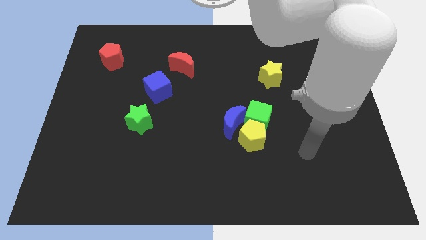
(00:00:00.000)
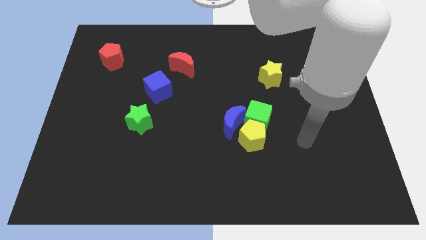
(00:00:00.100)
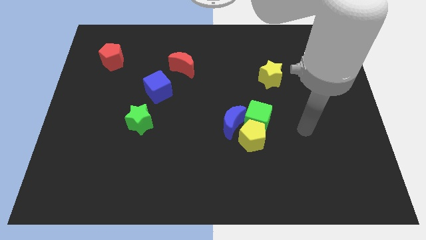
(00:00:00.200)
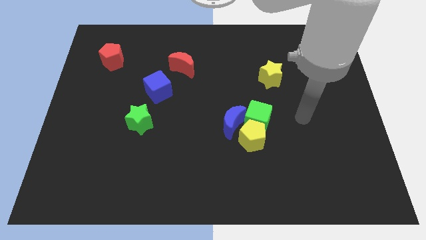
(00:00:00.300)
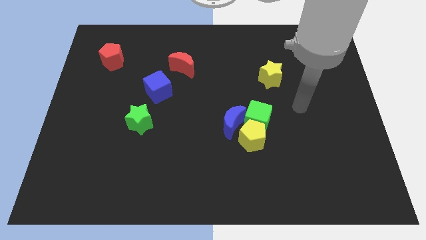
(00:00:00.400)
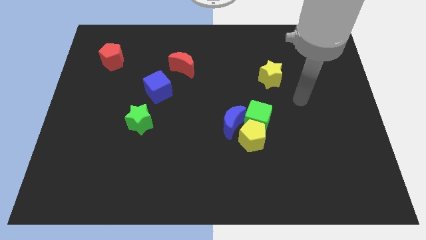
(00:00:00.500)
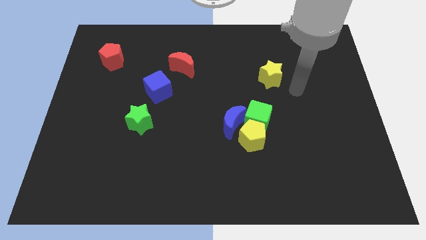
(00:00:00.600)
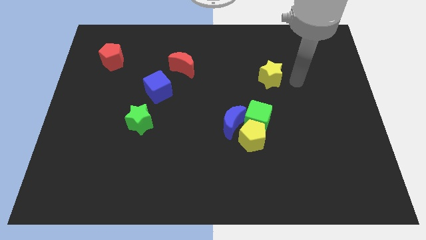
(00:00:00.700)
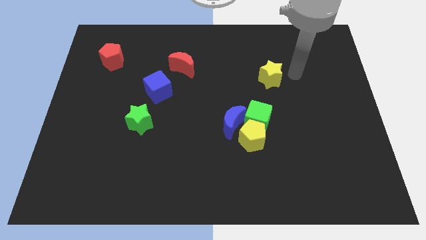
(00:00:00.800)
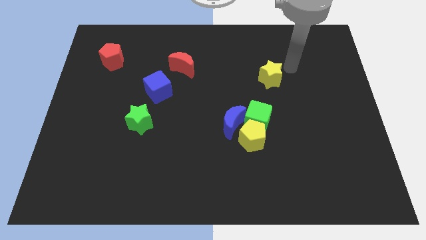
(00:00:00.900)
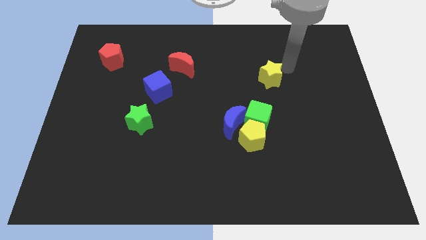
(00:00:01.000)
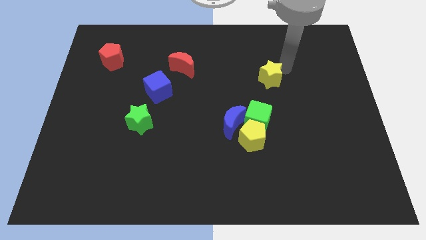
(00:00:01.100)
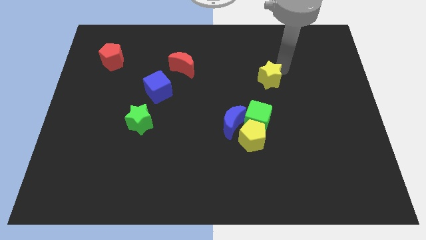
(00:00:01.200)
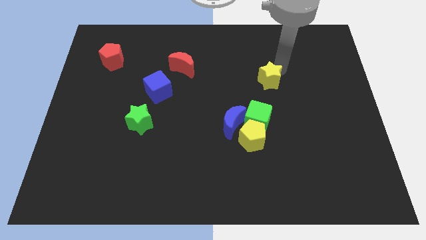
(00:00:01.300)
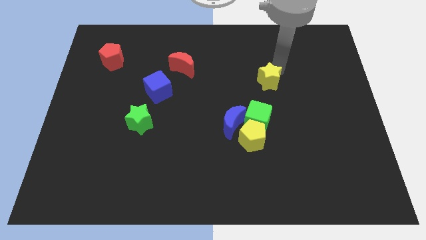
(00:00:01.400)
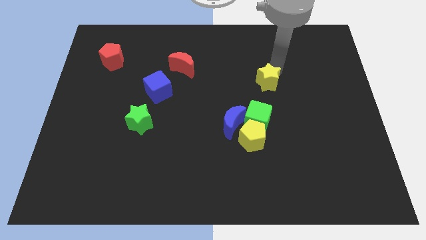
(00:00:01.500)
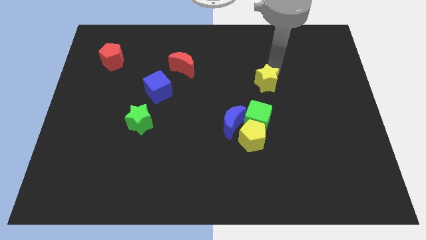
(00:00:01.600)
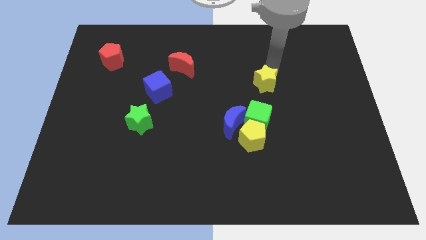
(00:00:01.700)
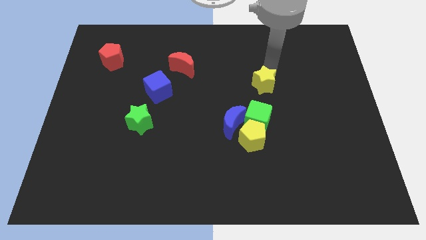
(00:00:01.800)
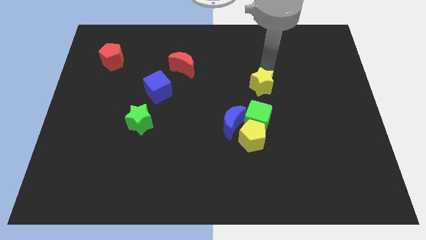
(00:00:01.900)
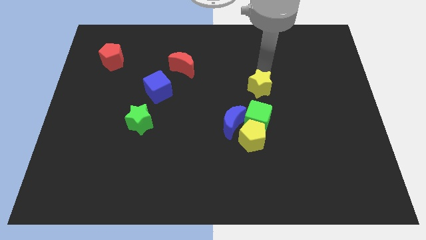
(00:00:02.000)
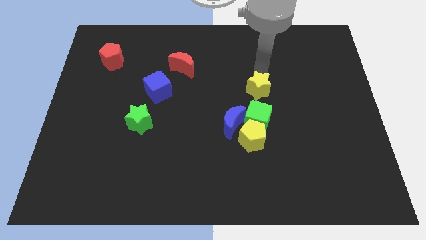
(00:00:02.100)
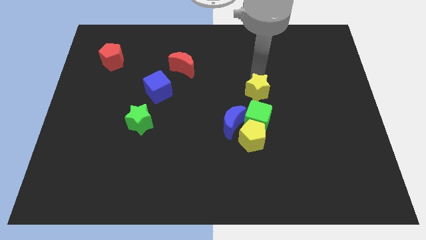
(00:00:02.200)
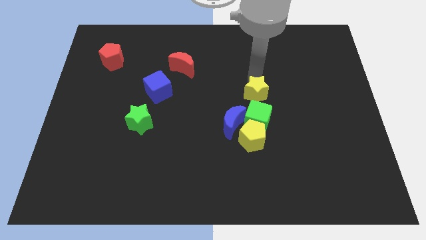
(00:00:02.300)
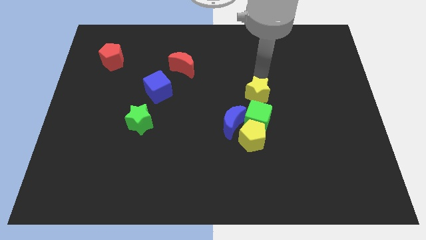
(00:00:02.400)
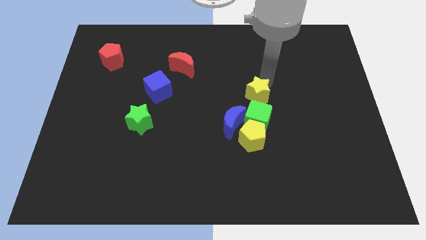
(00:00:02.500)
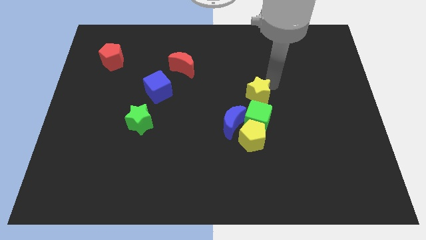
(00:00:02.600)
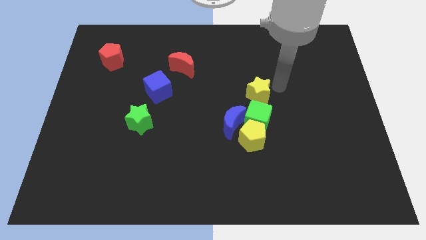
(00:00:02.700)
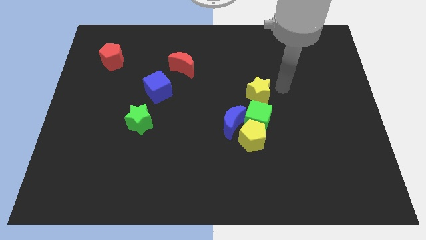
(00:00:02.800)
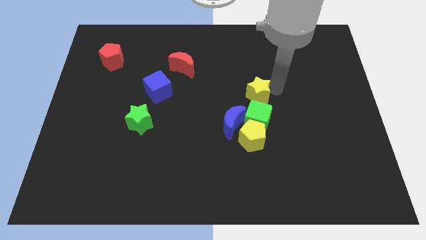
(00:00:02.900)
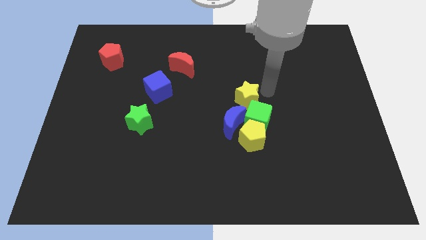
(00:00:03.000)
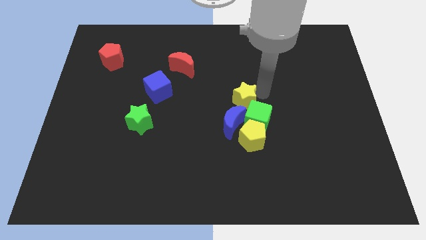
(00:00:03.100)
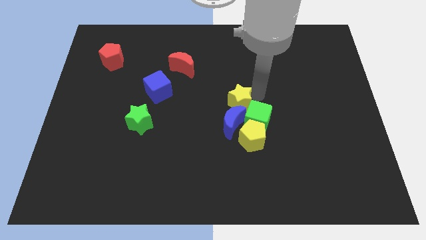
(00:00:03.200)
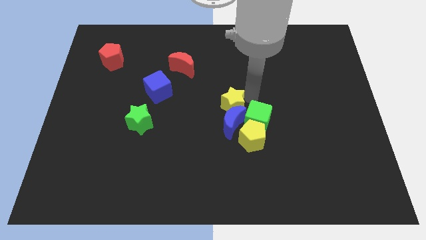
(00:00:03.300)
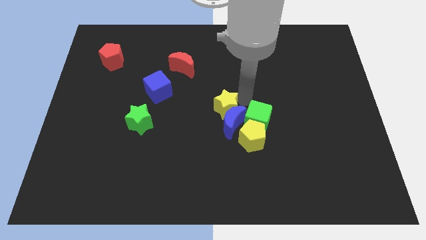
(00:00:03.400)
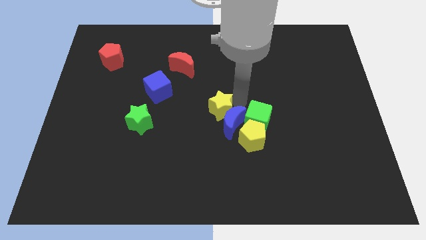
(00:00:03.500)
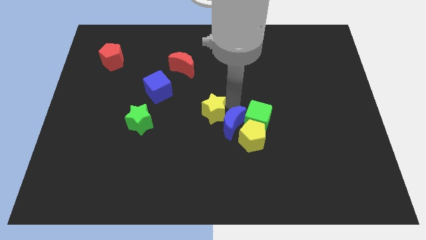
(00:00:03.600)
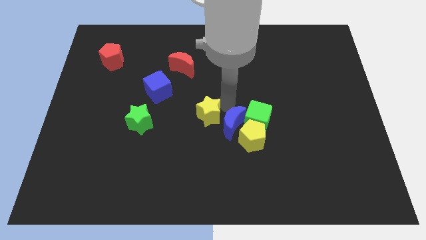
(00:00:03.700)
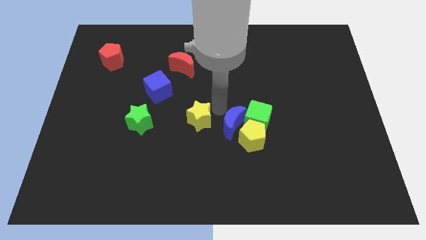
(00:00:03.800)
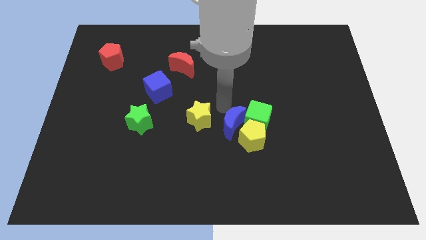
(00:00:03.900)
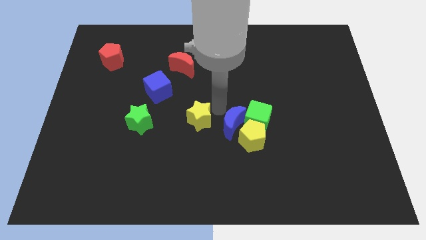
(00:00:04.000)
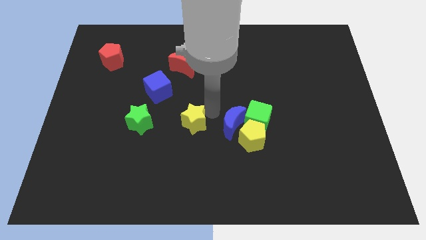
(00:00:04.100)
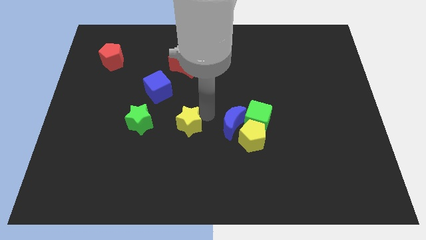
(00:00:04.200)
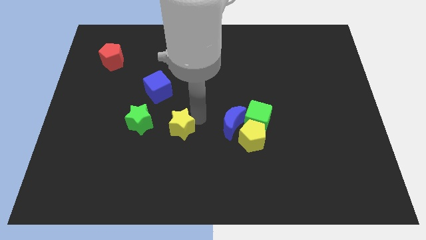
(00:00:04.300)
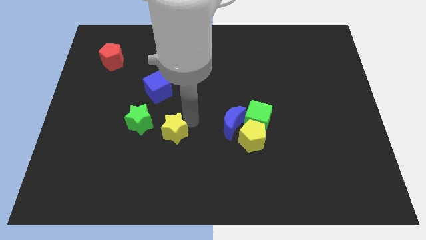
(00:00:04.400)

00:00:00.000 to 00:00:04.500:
slide the yellow star to the bottom right side of the green star

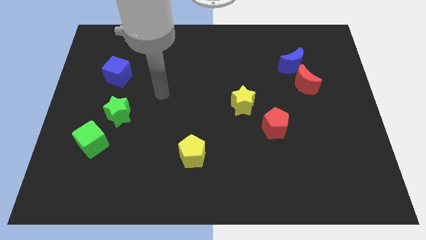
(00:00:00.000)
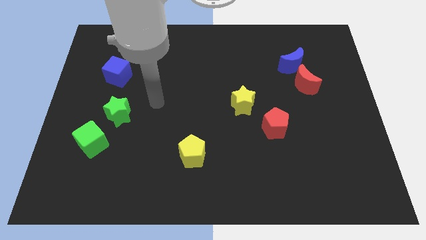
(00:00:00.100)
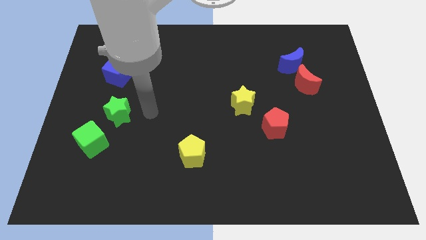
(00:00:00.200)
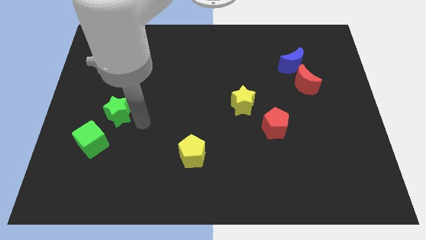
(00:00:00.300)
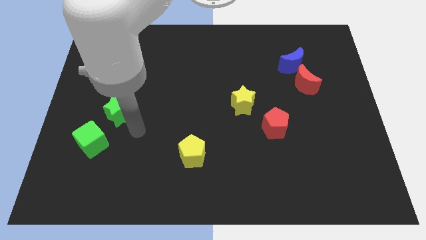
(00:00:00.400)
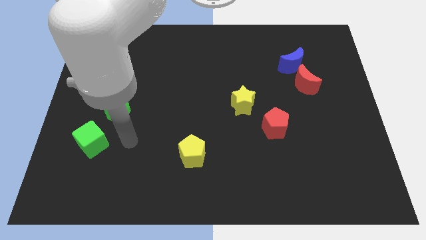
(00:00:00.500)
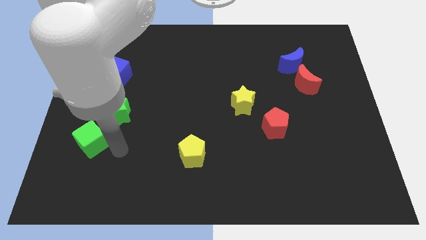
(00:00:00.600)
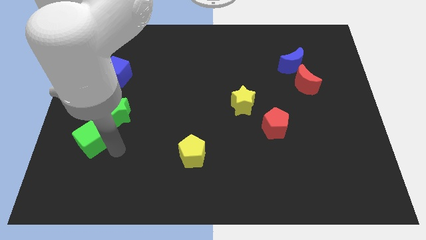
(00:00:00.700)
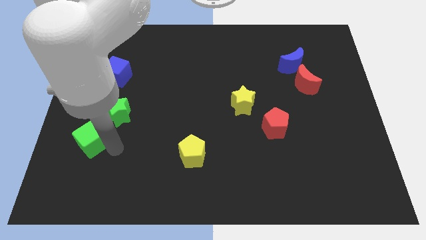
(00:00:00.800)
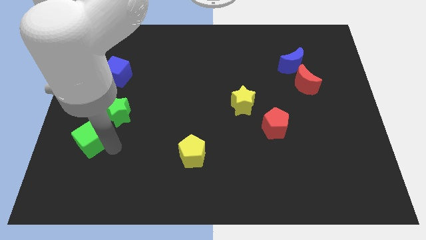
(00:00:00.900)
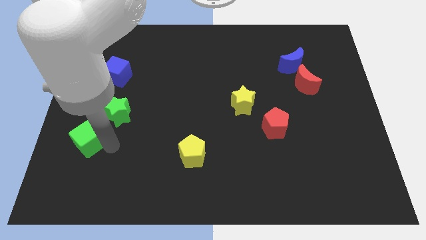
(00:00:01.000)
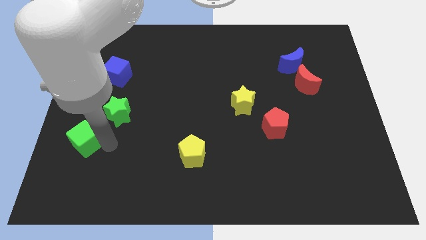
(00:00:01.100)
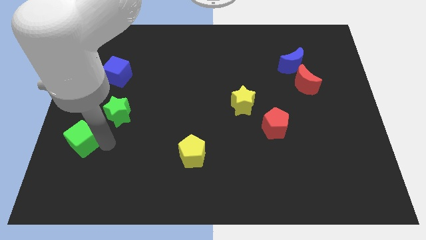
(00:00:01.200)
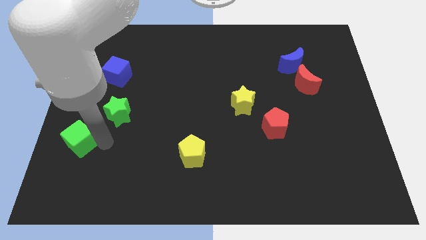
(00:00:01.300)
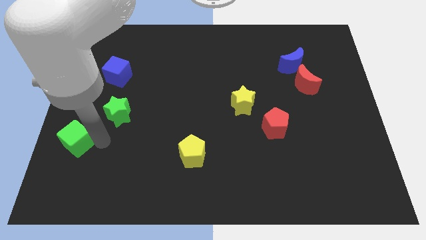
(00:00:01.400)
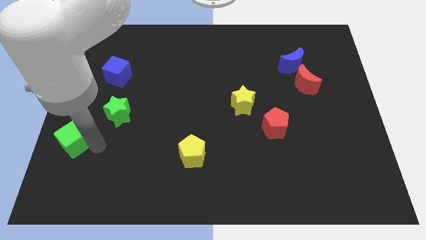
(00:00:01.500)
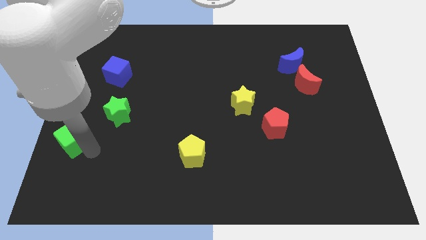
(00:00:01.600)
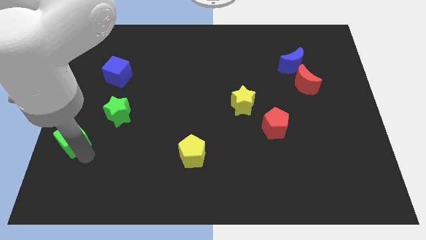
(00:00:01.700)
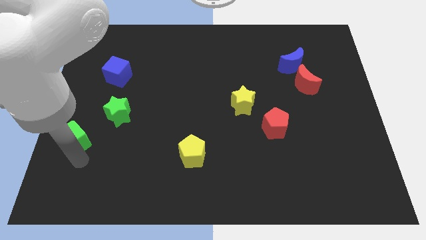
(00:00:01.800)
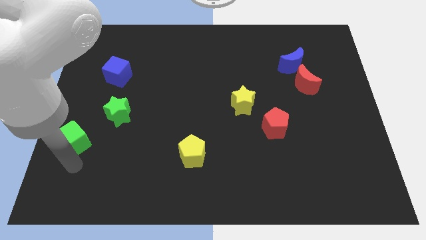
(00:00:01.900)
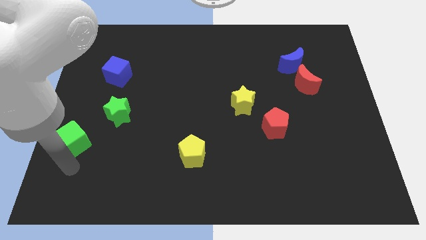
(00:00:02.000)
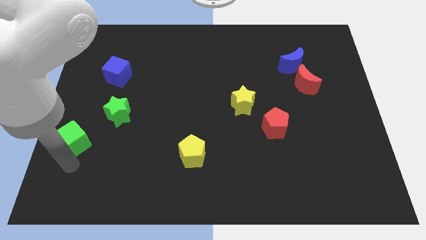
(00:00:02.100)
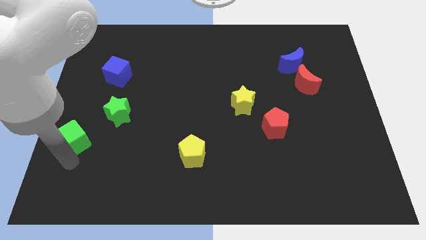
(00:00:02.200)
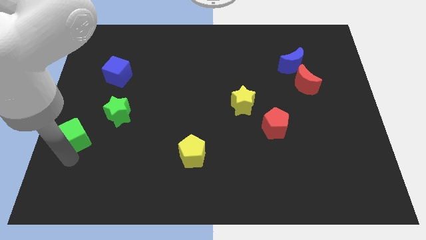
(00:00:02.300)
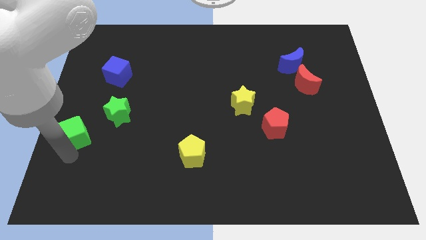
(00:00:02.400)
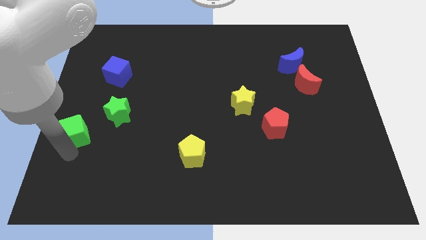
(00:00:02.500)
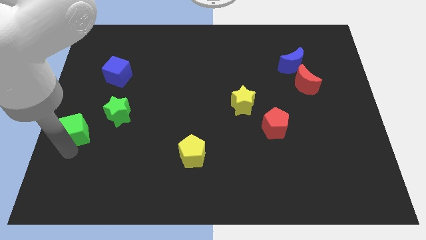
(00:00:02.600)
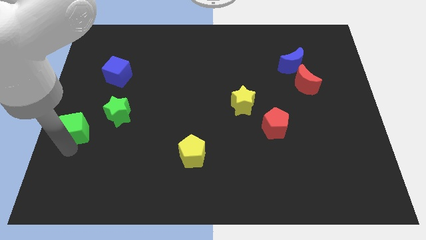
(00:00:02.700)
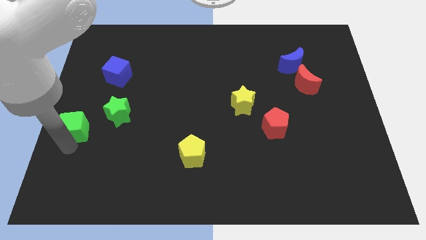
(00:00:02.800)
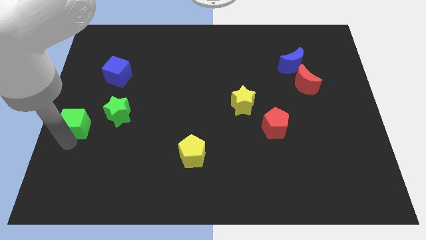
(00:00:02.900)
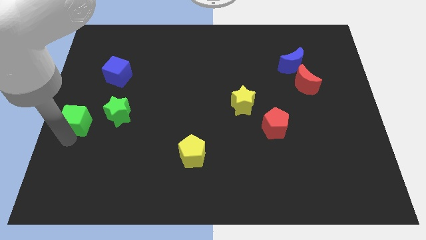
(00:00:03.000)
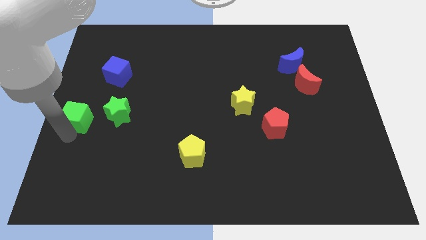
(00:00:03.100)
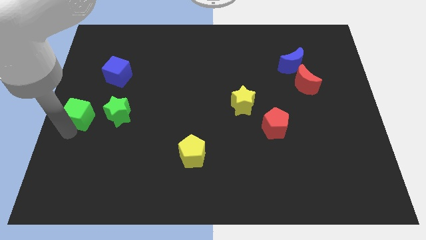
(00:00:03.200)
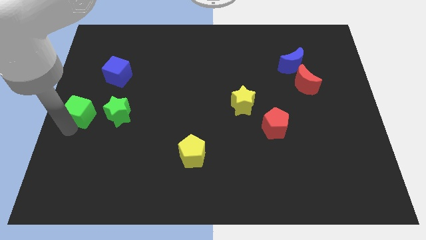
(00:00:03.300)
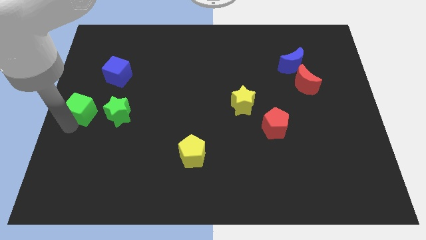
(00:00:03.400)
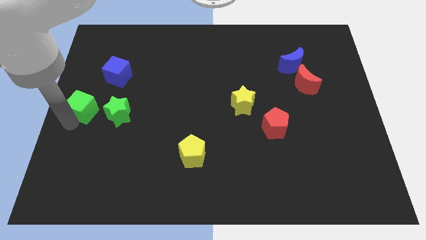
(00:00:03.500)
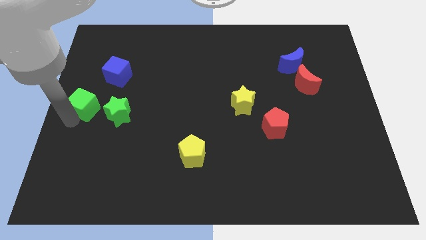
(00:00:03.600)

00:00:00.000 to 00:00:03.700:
slide the green cube diagonally up and to the left of the green star

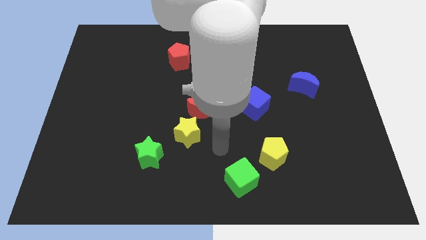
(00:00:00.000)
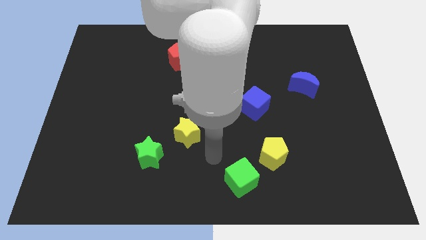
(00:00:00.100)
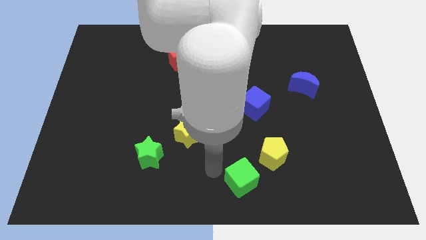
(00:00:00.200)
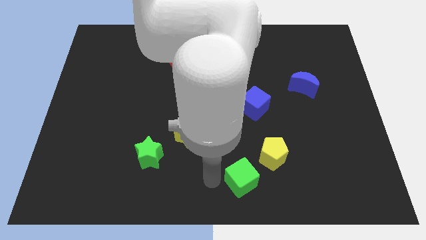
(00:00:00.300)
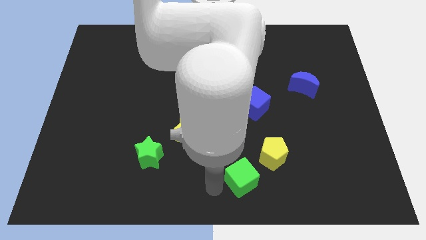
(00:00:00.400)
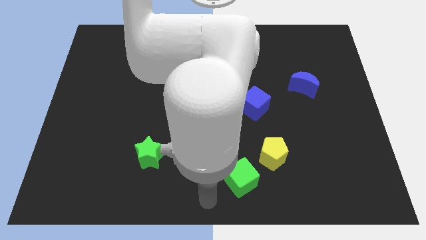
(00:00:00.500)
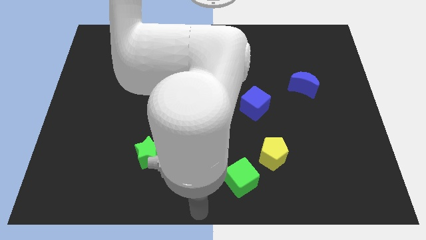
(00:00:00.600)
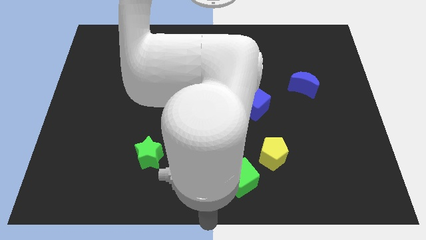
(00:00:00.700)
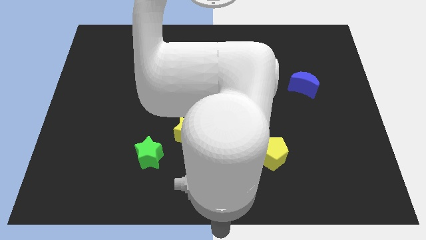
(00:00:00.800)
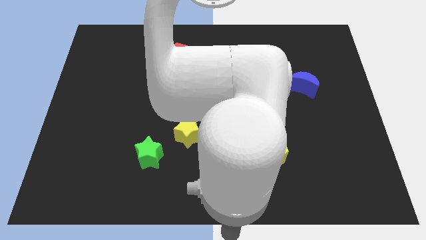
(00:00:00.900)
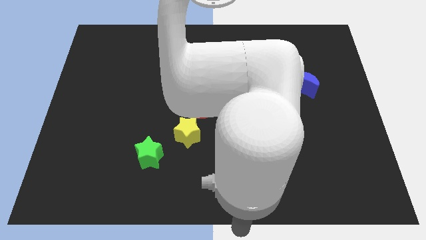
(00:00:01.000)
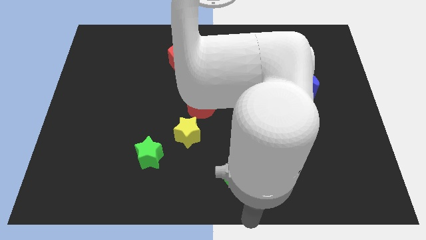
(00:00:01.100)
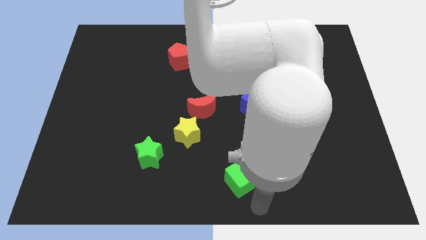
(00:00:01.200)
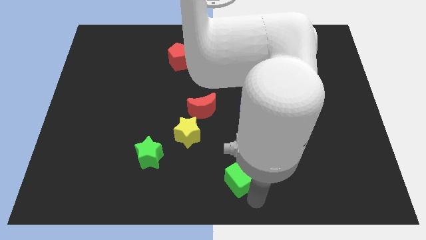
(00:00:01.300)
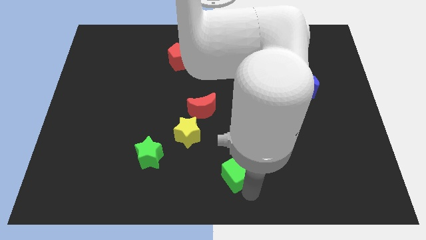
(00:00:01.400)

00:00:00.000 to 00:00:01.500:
slide the green cube left of the yellow pentagon
